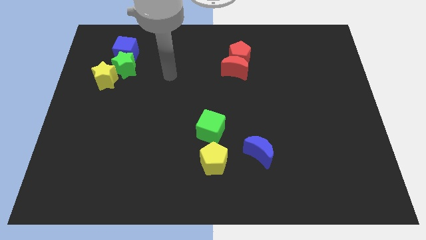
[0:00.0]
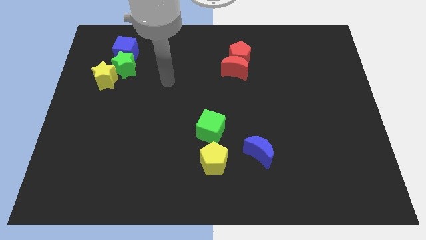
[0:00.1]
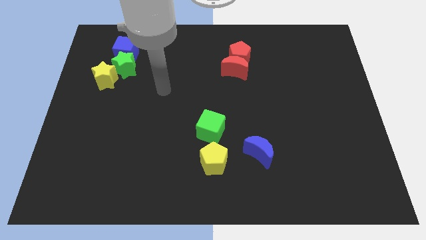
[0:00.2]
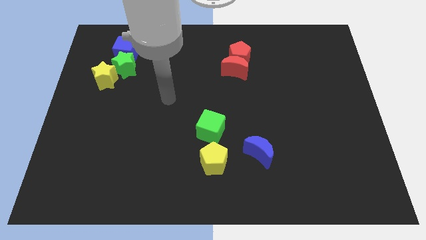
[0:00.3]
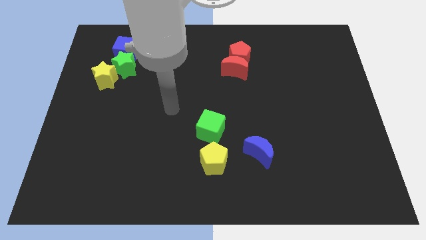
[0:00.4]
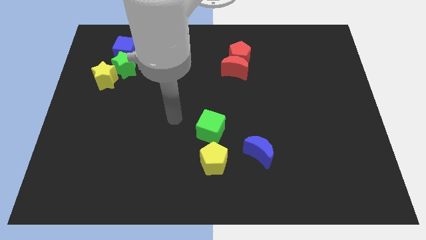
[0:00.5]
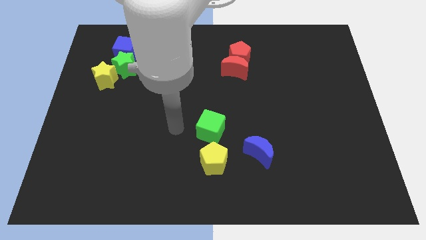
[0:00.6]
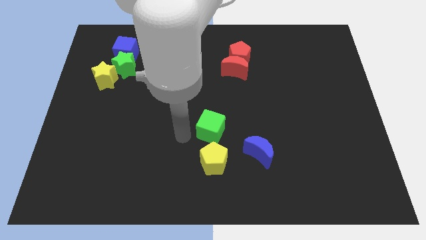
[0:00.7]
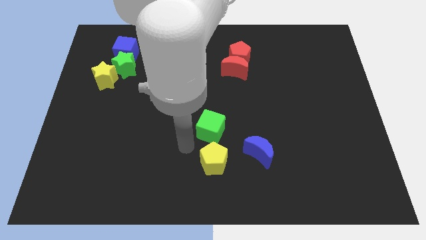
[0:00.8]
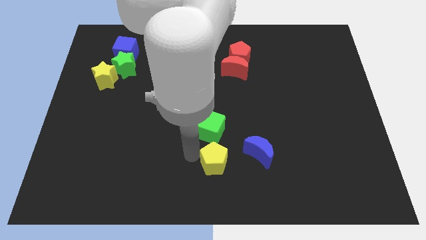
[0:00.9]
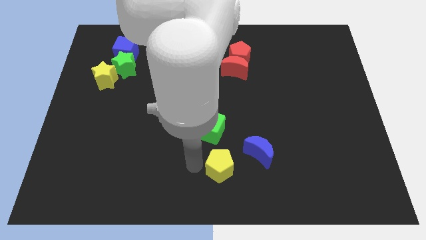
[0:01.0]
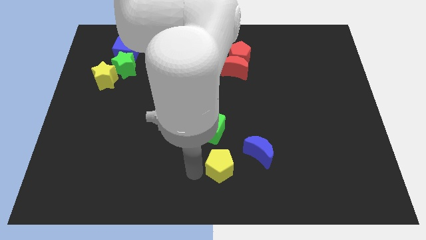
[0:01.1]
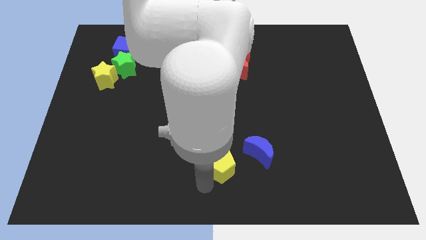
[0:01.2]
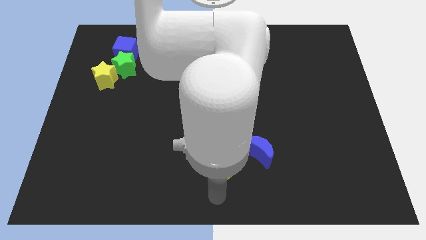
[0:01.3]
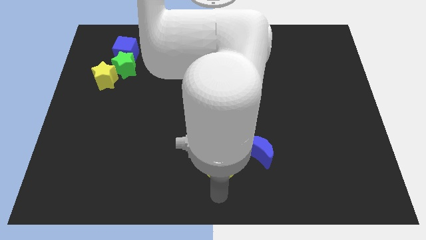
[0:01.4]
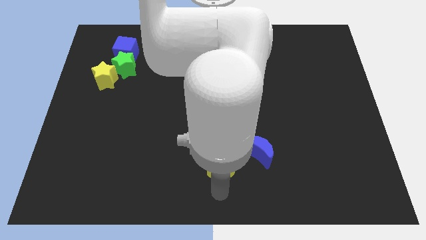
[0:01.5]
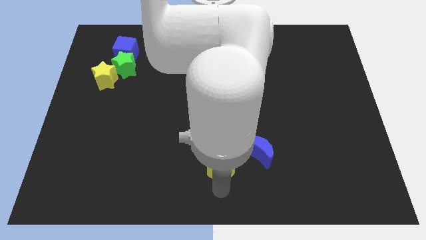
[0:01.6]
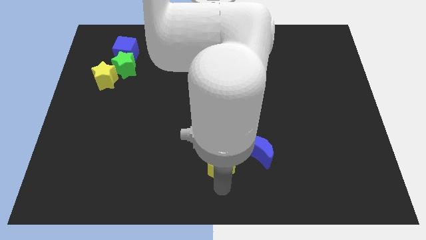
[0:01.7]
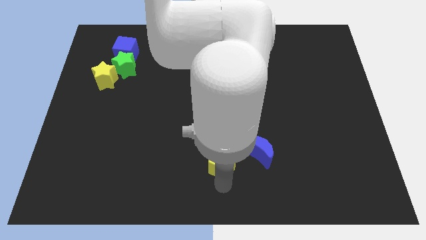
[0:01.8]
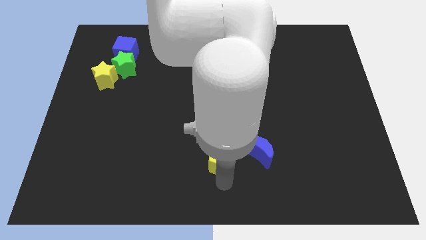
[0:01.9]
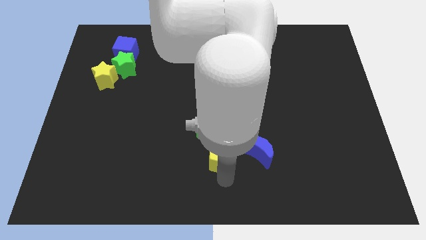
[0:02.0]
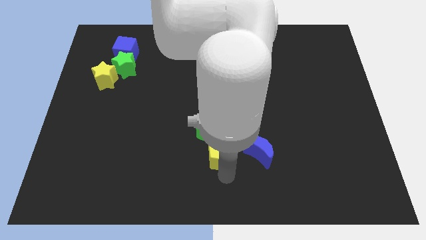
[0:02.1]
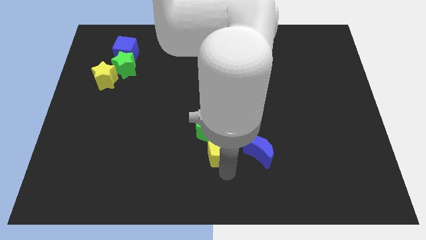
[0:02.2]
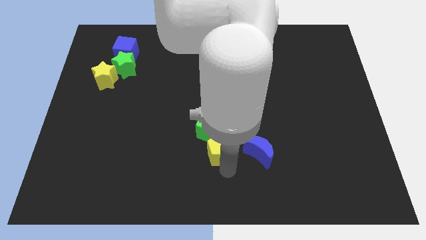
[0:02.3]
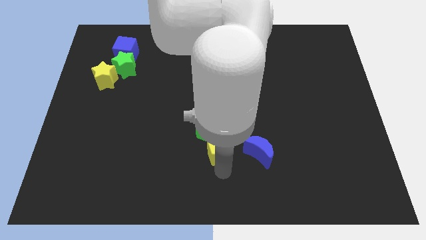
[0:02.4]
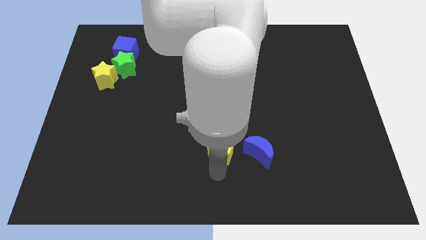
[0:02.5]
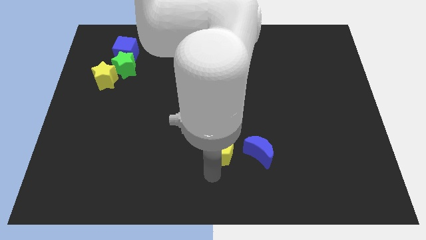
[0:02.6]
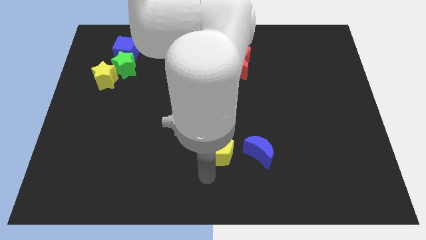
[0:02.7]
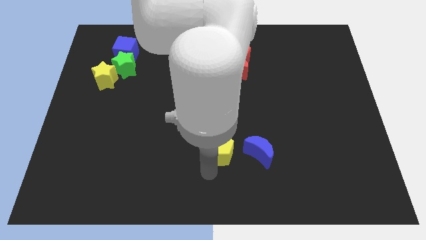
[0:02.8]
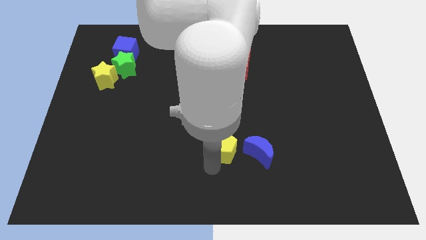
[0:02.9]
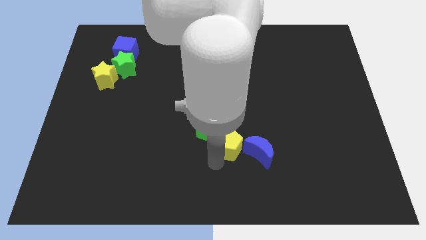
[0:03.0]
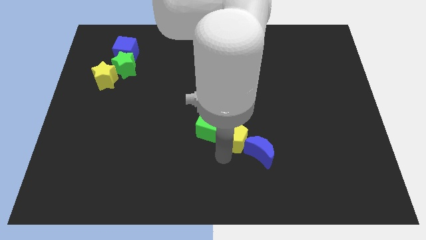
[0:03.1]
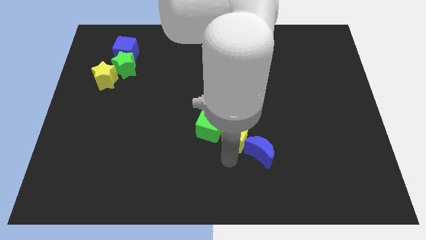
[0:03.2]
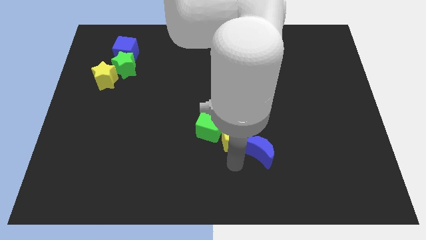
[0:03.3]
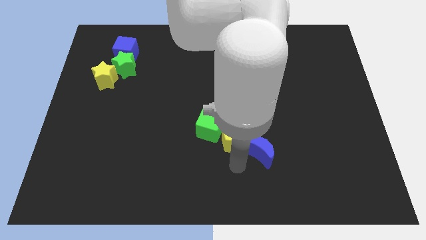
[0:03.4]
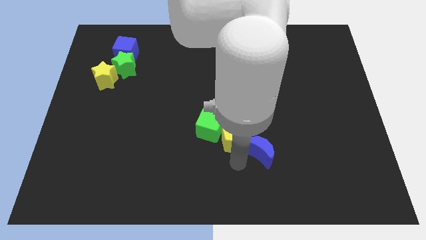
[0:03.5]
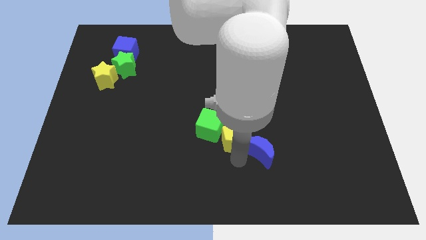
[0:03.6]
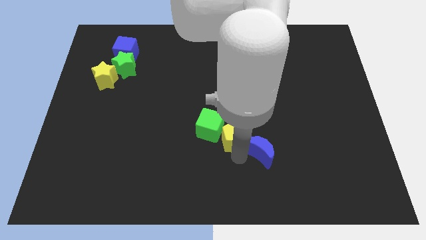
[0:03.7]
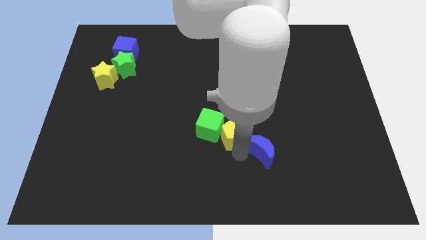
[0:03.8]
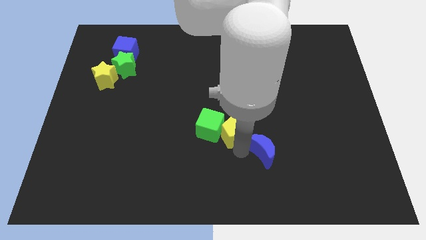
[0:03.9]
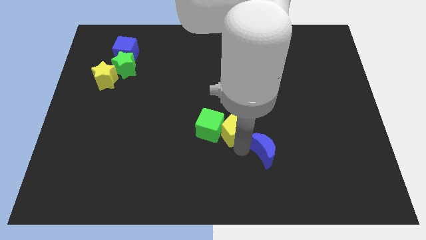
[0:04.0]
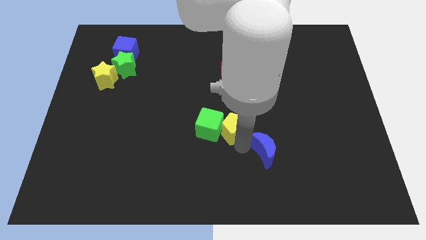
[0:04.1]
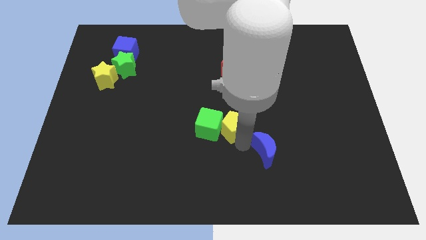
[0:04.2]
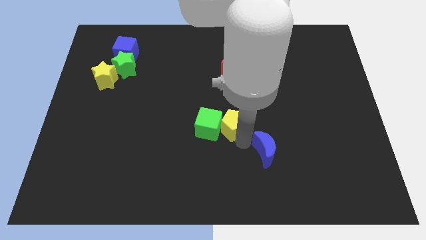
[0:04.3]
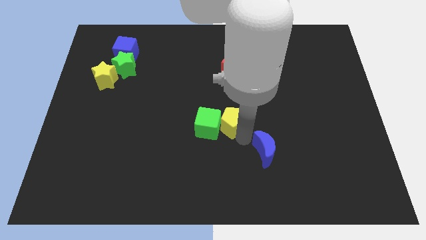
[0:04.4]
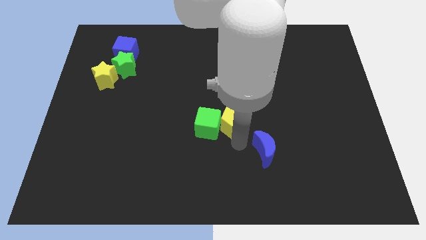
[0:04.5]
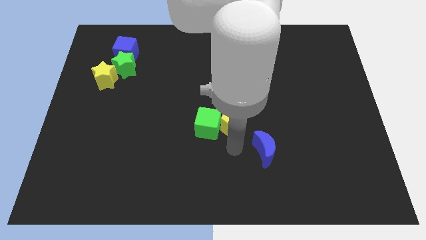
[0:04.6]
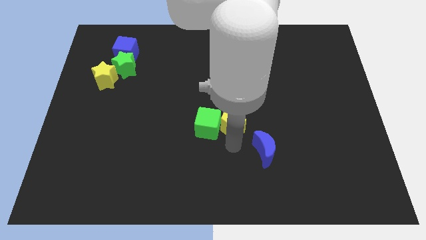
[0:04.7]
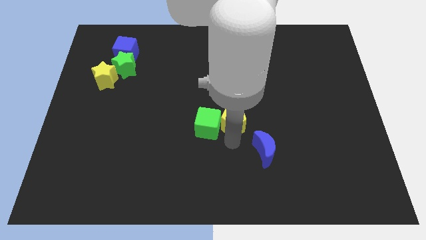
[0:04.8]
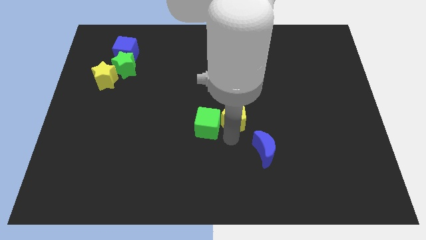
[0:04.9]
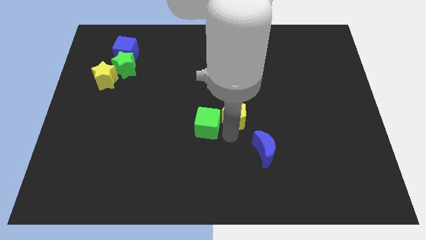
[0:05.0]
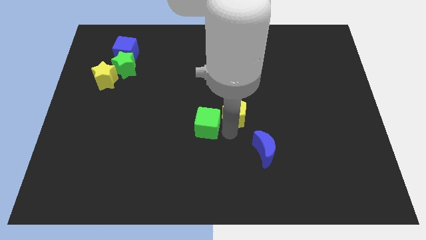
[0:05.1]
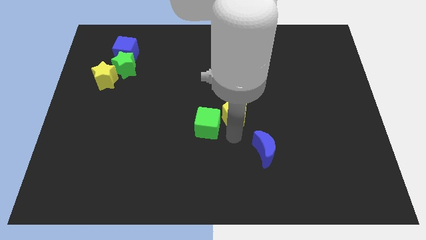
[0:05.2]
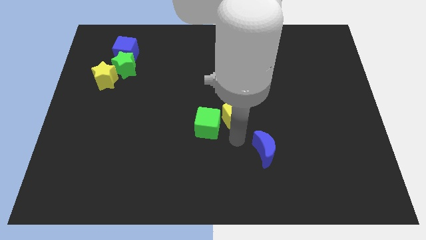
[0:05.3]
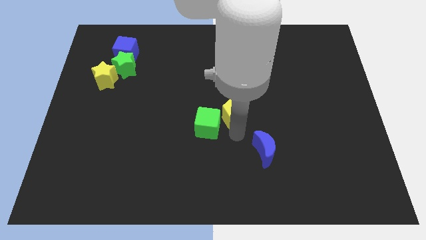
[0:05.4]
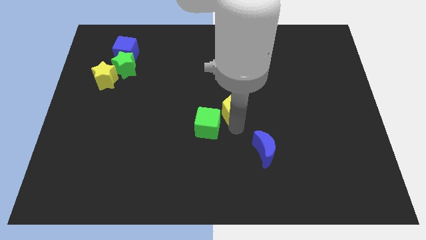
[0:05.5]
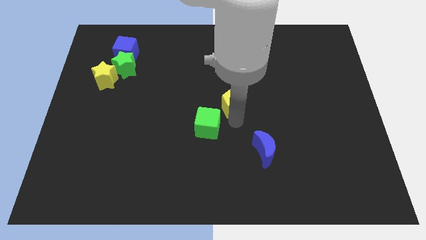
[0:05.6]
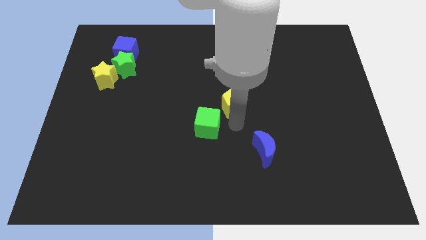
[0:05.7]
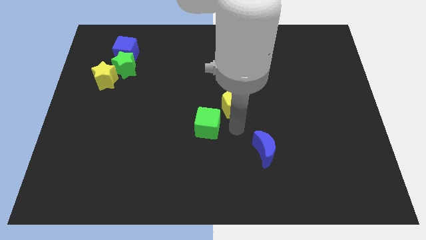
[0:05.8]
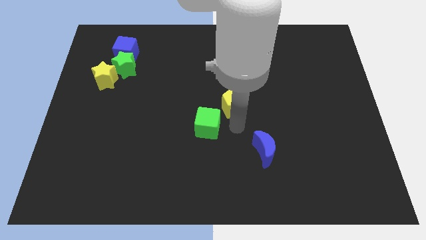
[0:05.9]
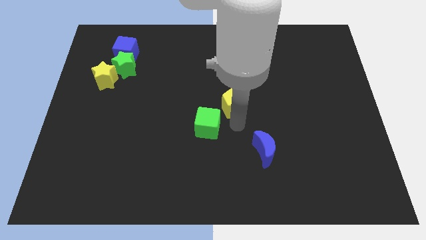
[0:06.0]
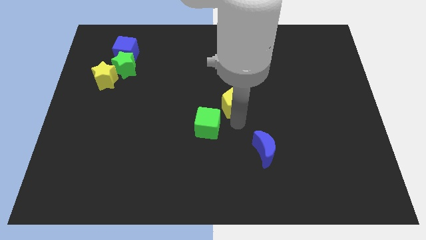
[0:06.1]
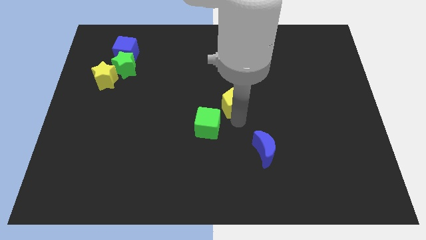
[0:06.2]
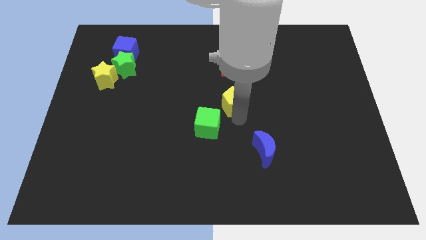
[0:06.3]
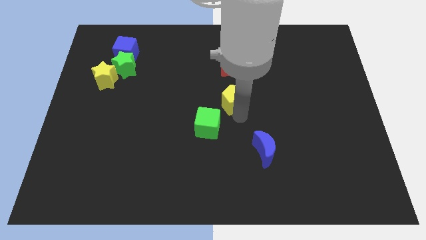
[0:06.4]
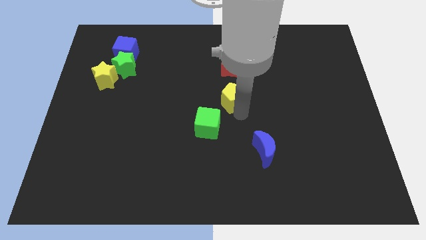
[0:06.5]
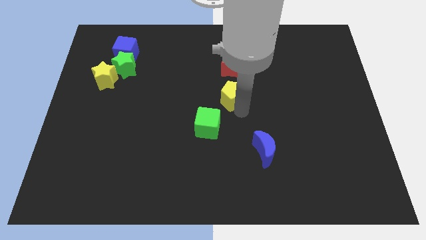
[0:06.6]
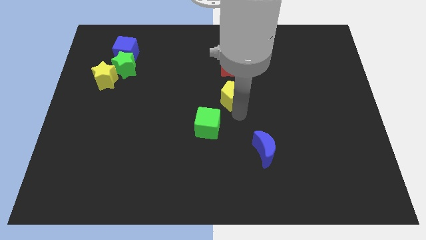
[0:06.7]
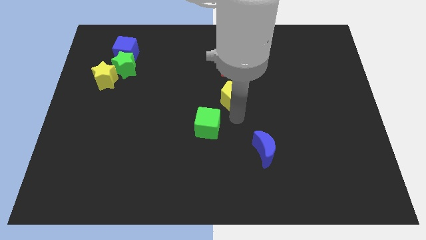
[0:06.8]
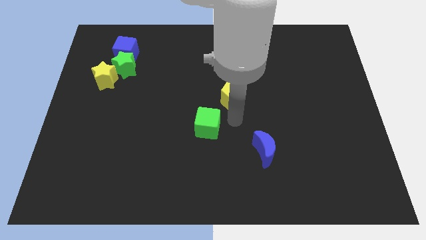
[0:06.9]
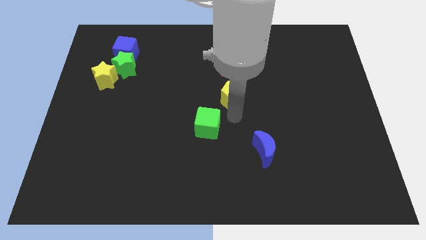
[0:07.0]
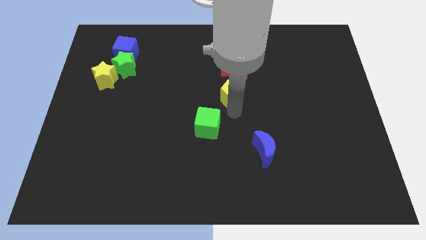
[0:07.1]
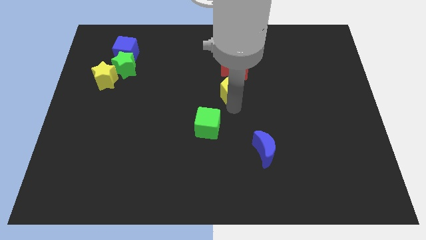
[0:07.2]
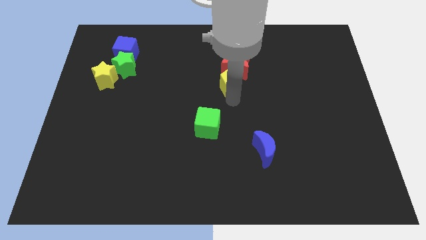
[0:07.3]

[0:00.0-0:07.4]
push the yellow pentagon towards the red moon

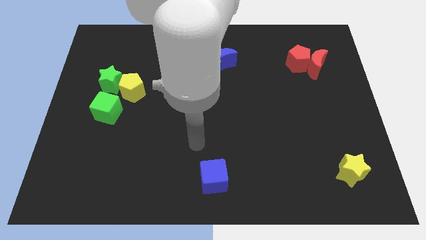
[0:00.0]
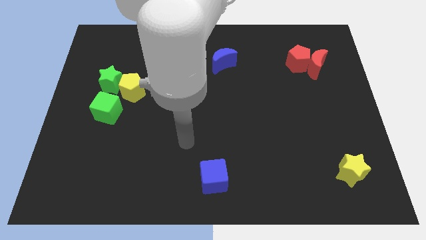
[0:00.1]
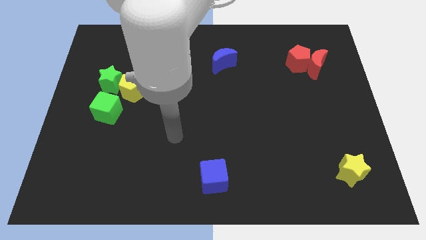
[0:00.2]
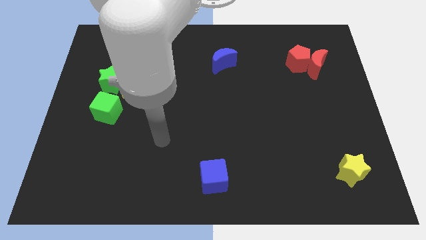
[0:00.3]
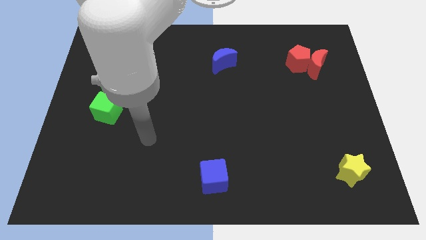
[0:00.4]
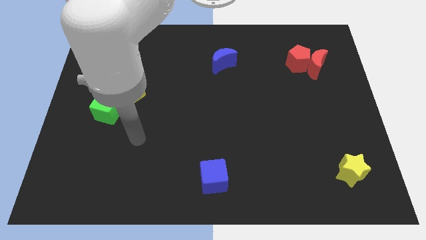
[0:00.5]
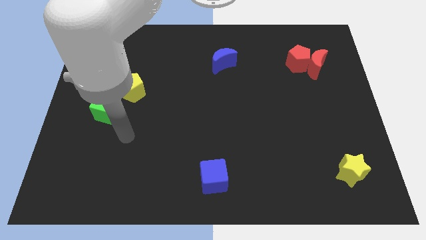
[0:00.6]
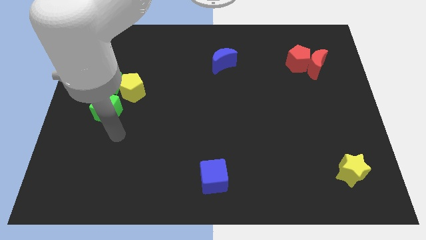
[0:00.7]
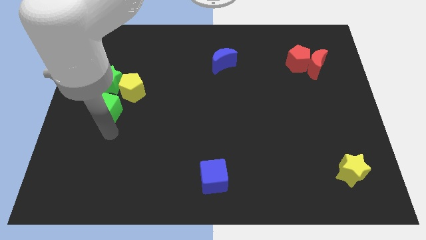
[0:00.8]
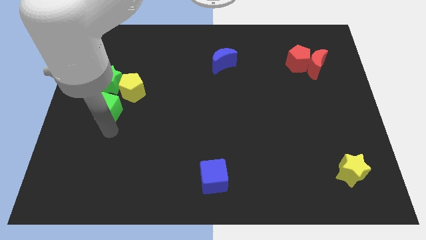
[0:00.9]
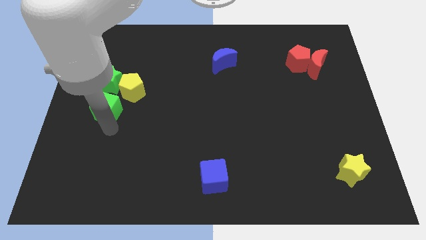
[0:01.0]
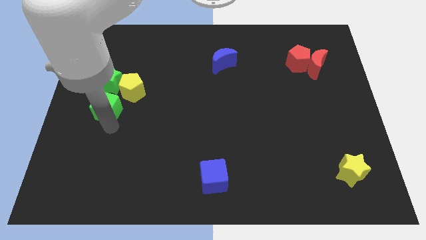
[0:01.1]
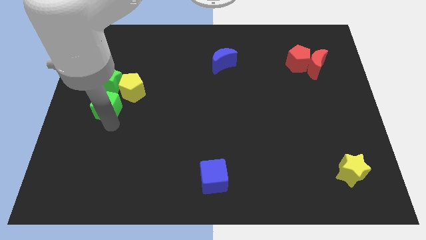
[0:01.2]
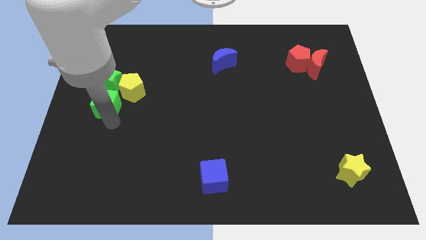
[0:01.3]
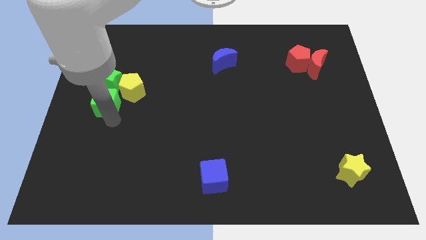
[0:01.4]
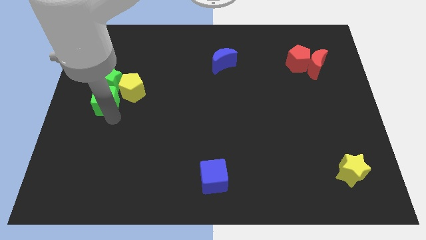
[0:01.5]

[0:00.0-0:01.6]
move the green cube towards the green star
